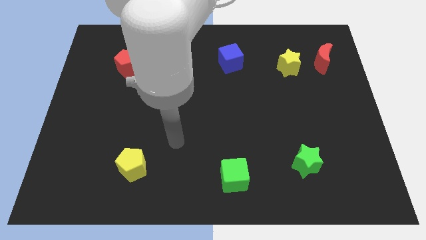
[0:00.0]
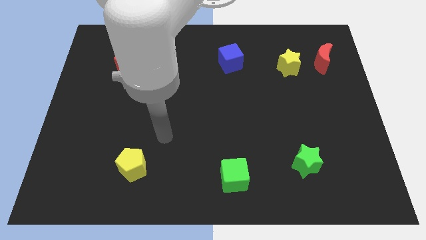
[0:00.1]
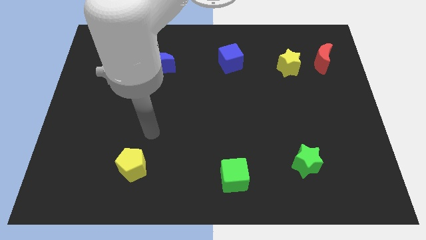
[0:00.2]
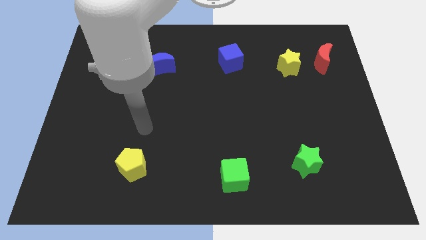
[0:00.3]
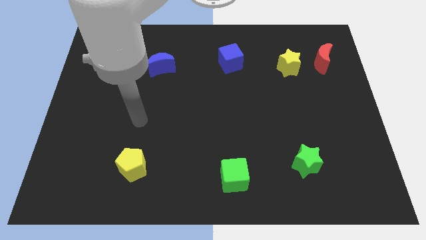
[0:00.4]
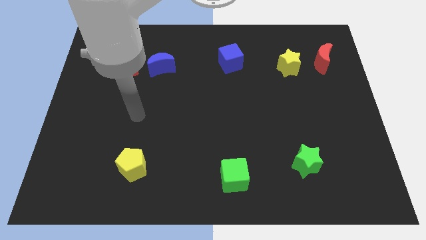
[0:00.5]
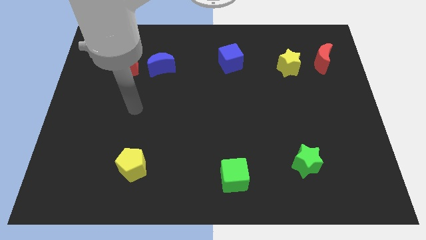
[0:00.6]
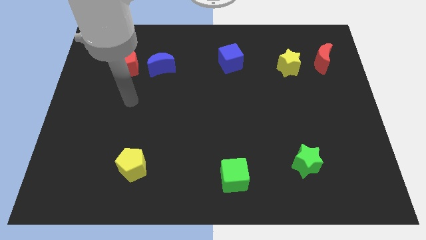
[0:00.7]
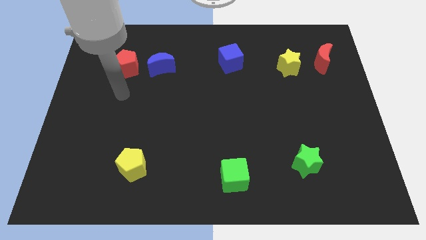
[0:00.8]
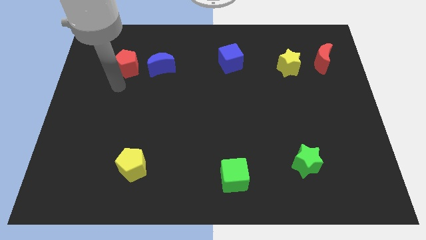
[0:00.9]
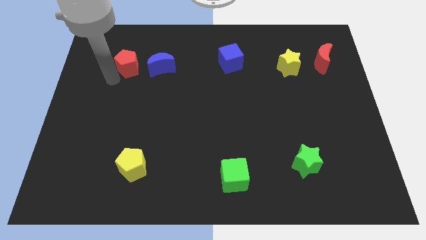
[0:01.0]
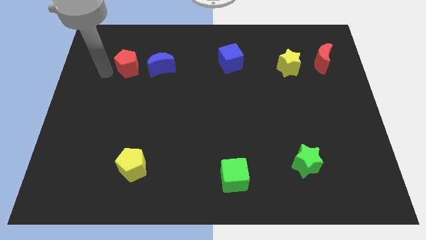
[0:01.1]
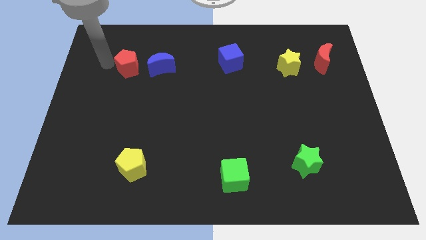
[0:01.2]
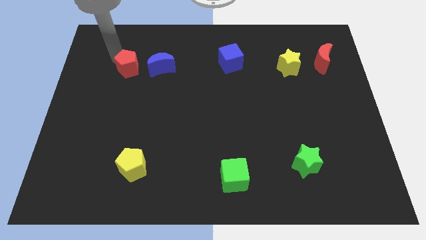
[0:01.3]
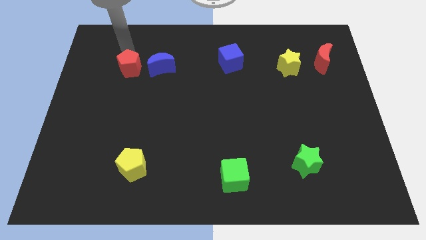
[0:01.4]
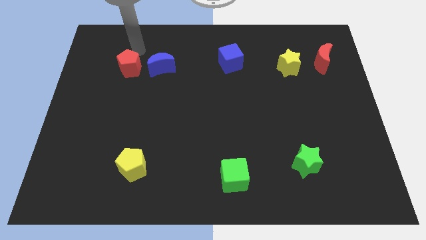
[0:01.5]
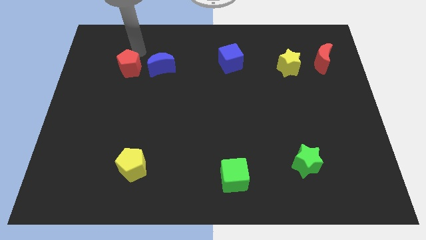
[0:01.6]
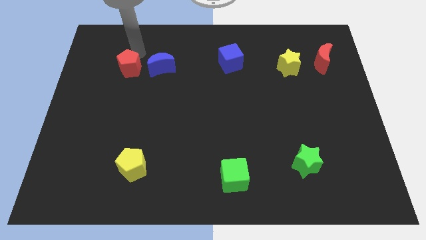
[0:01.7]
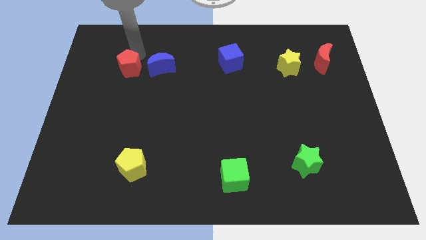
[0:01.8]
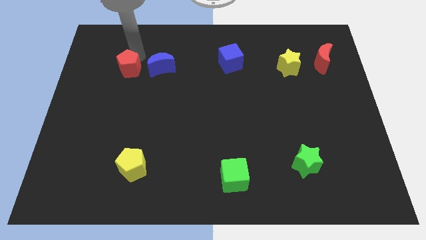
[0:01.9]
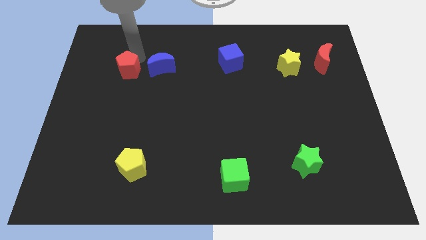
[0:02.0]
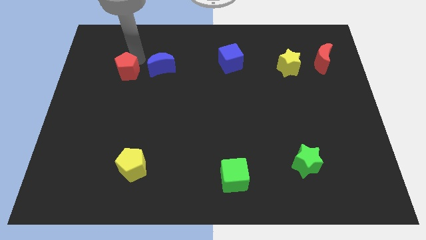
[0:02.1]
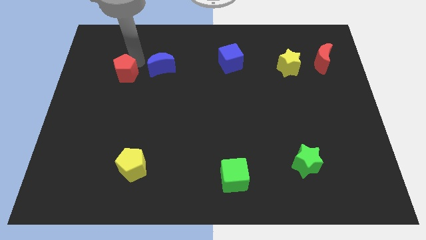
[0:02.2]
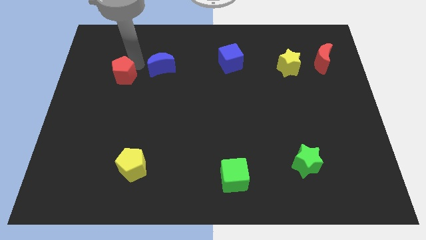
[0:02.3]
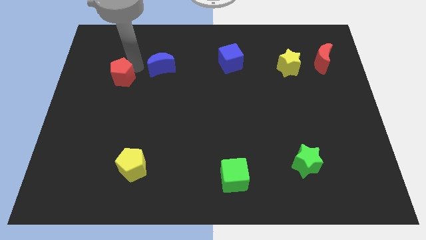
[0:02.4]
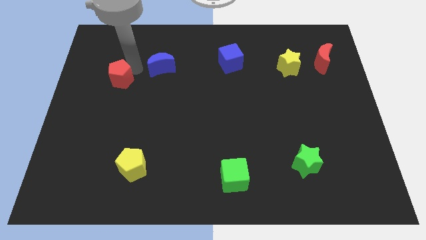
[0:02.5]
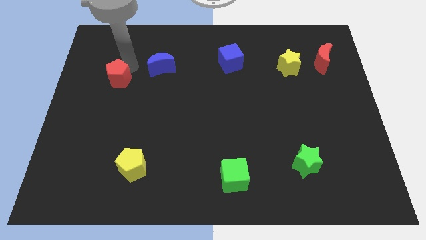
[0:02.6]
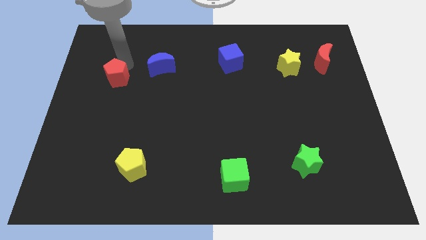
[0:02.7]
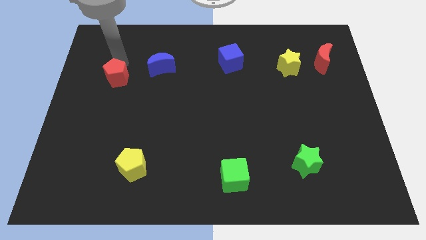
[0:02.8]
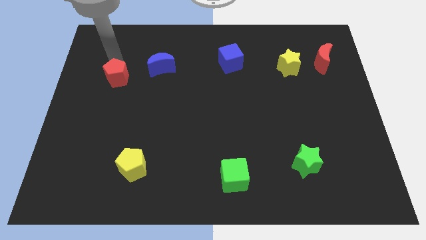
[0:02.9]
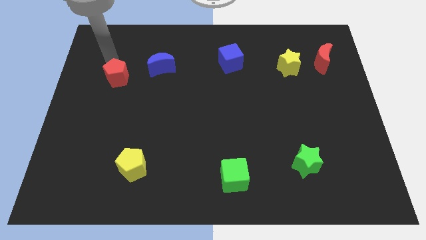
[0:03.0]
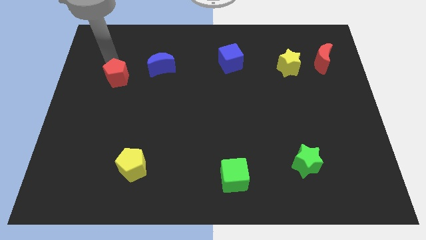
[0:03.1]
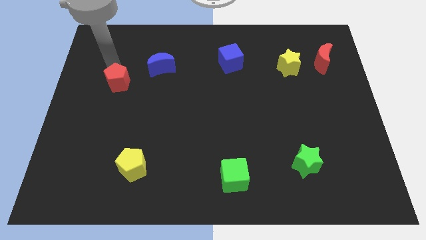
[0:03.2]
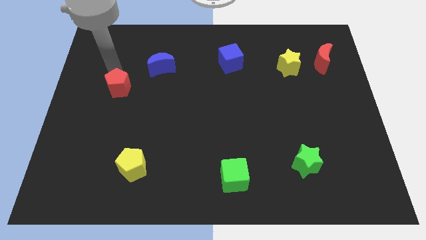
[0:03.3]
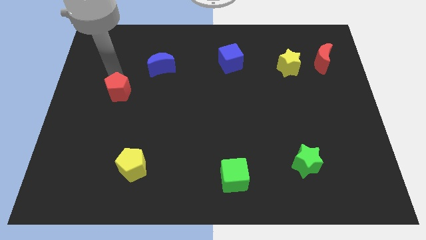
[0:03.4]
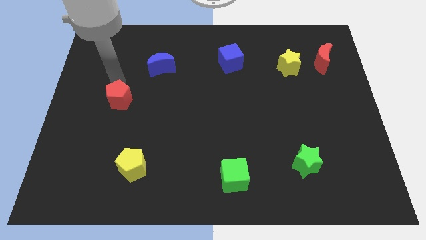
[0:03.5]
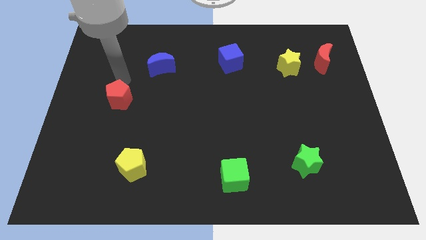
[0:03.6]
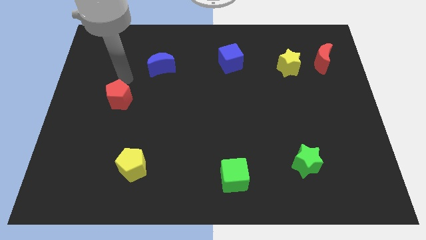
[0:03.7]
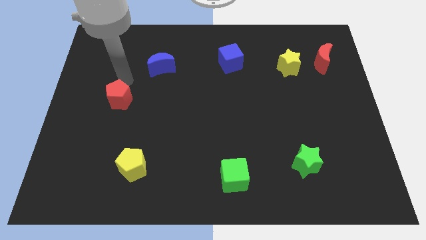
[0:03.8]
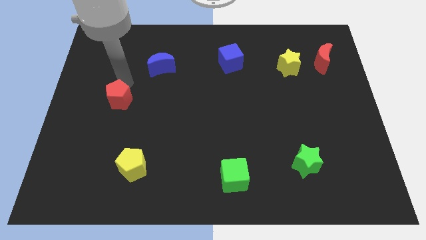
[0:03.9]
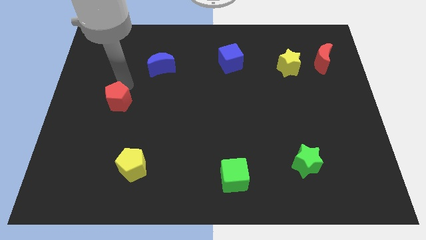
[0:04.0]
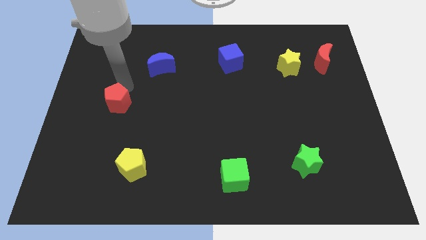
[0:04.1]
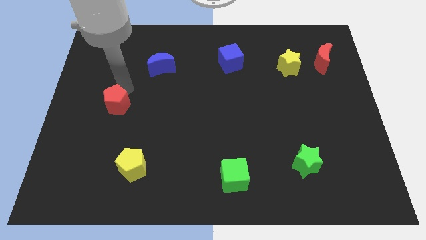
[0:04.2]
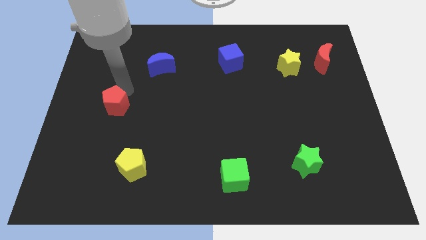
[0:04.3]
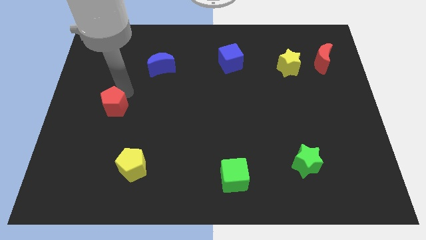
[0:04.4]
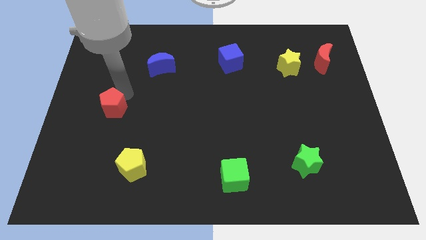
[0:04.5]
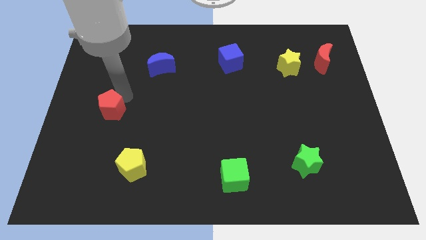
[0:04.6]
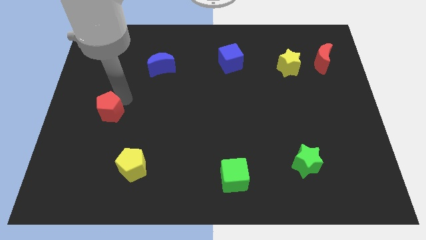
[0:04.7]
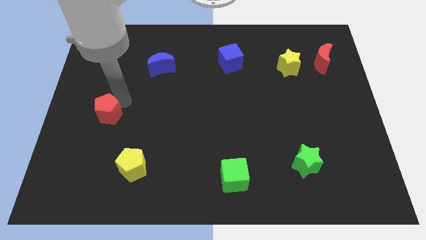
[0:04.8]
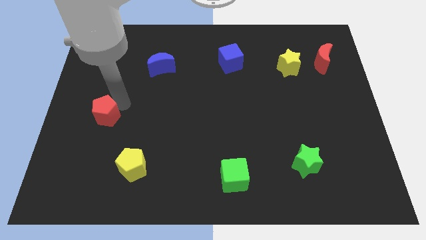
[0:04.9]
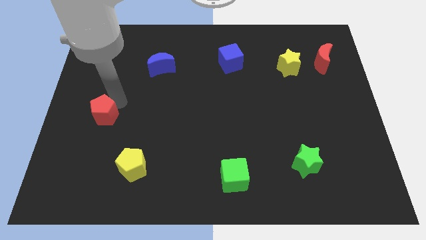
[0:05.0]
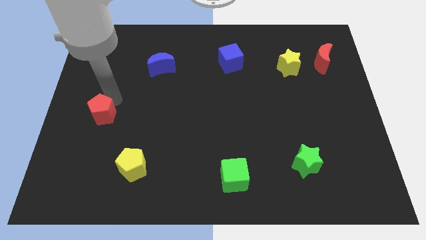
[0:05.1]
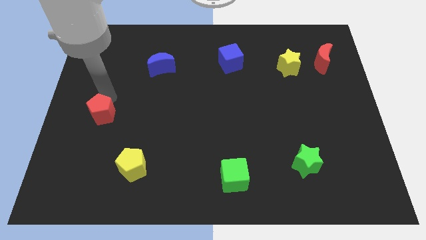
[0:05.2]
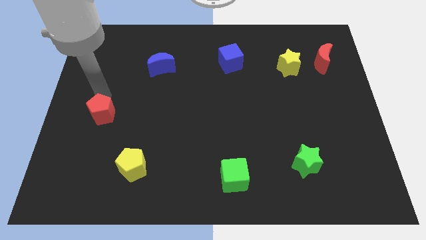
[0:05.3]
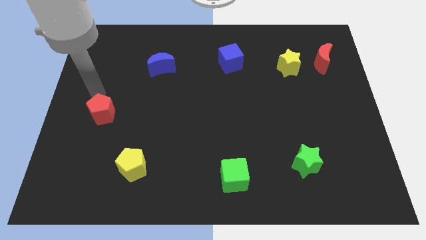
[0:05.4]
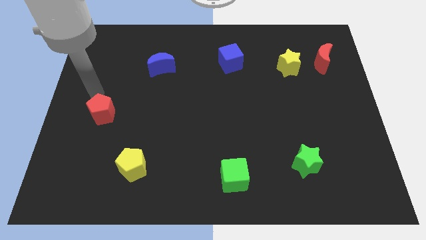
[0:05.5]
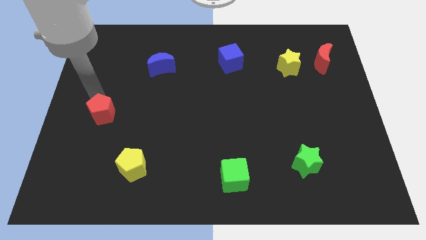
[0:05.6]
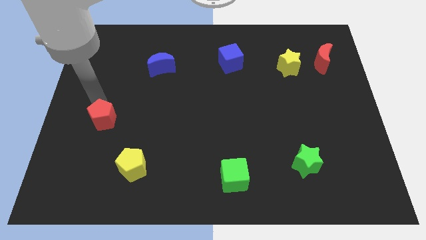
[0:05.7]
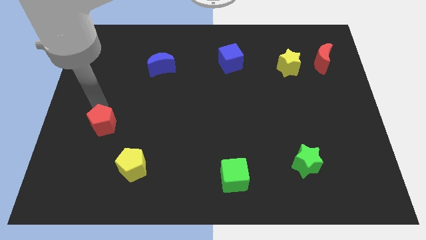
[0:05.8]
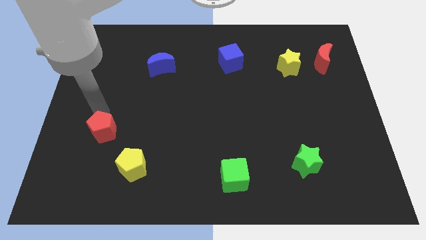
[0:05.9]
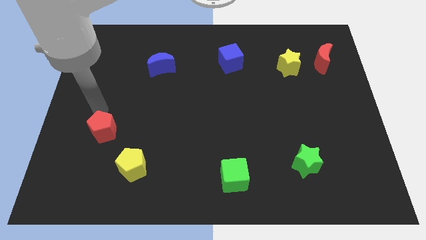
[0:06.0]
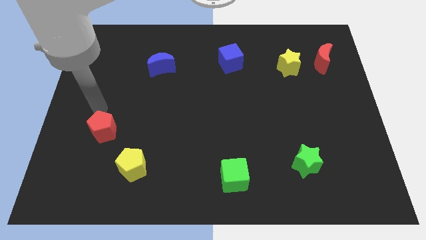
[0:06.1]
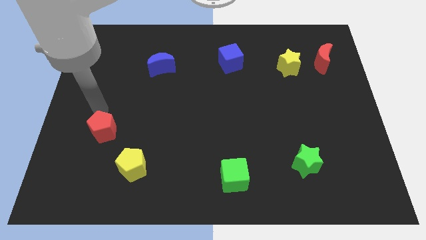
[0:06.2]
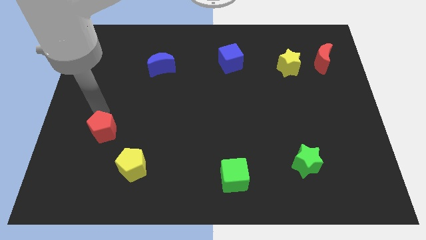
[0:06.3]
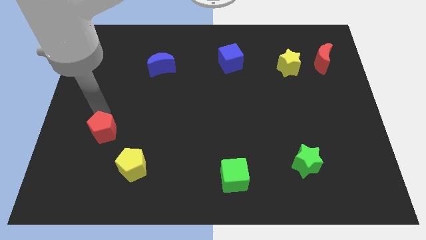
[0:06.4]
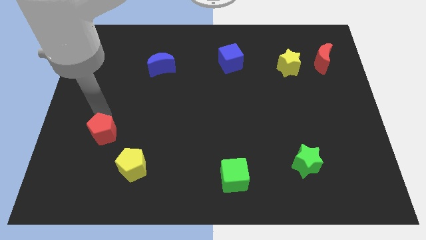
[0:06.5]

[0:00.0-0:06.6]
slide the red pentagon down

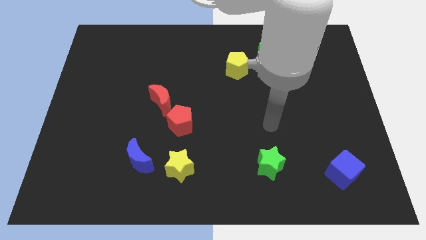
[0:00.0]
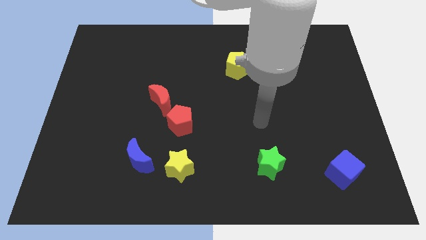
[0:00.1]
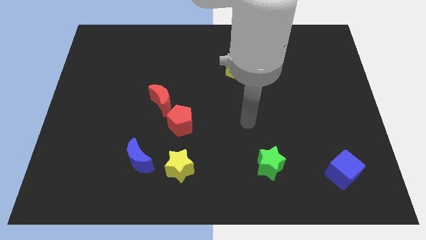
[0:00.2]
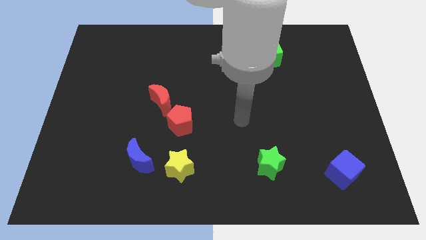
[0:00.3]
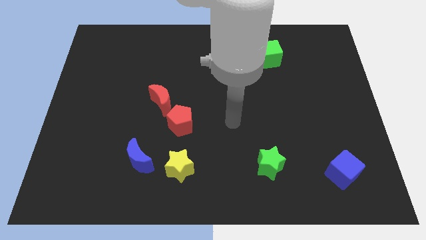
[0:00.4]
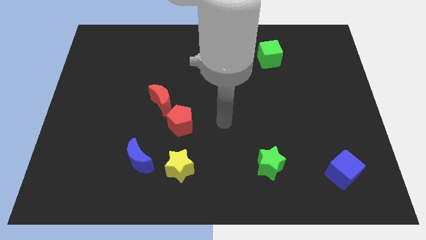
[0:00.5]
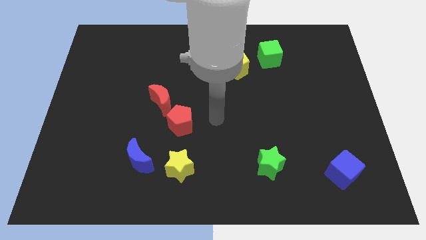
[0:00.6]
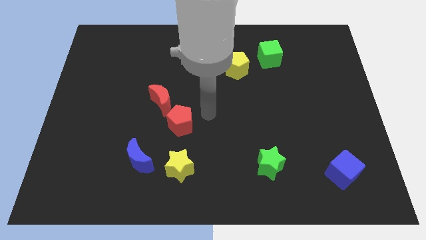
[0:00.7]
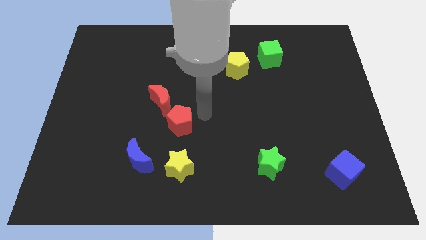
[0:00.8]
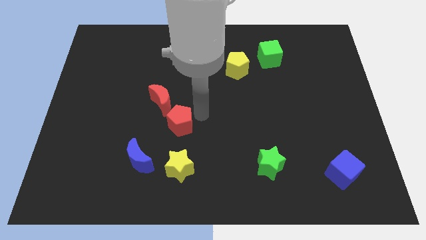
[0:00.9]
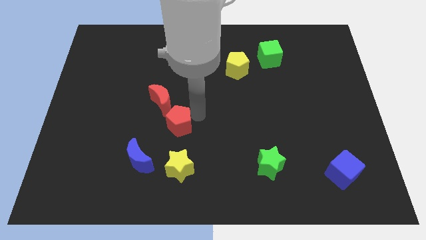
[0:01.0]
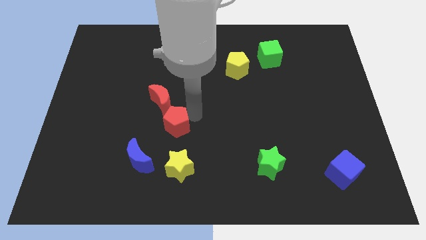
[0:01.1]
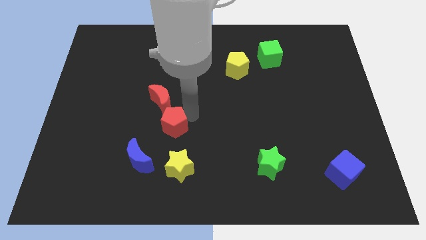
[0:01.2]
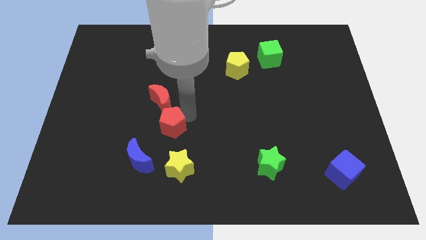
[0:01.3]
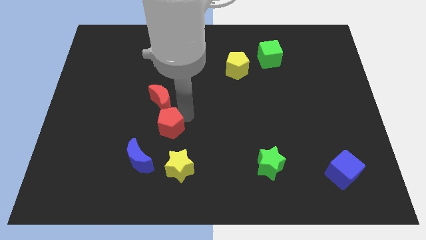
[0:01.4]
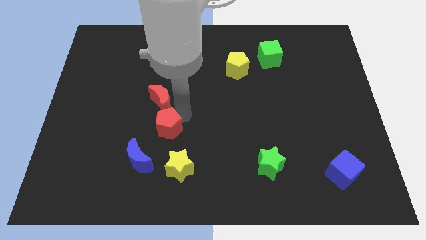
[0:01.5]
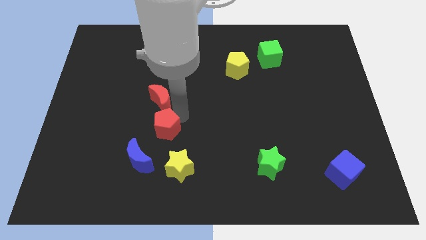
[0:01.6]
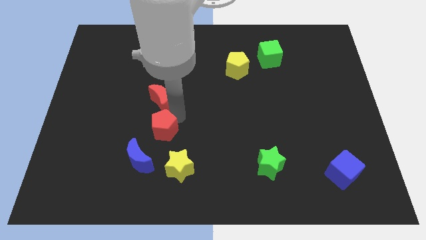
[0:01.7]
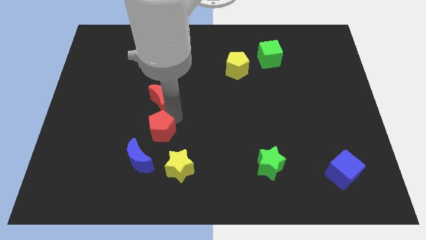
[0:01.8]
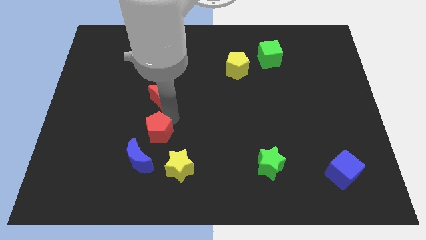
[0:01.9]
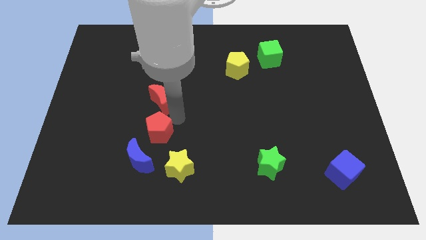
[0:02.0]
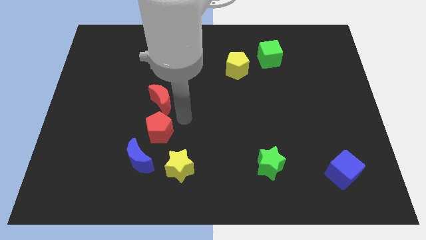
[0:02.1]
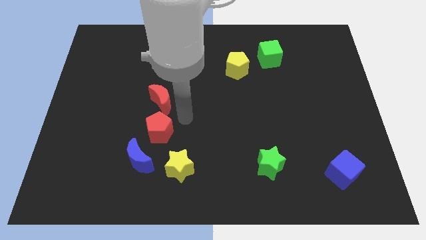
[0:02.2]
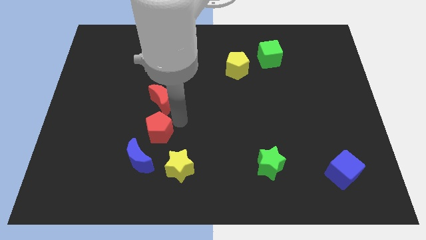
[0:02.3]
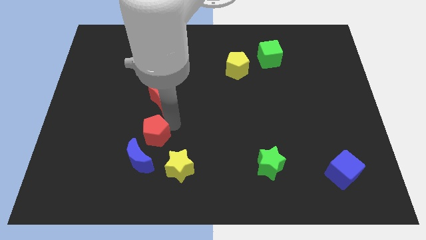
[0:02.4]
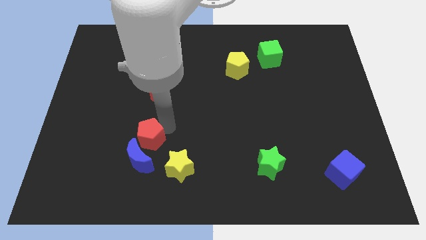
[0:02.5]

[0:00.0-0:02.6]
slide the red pentagon down and then left slightly
